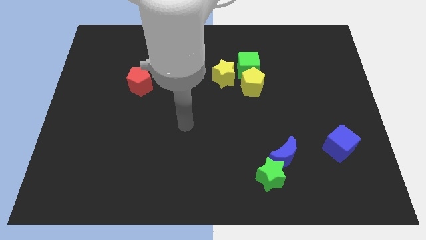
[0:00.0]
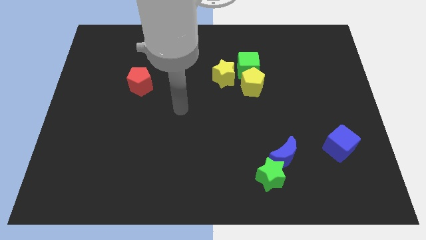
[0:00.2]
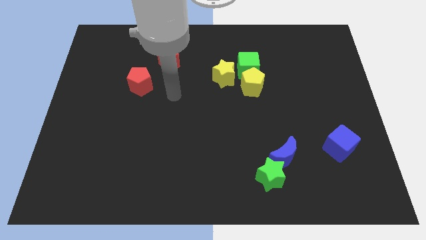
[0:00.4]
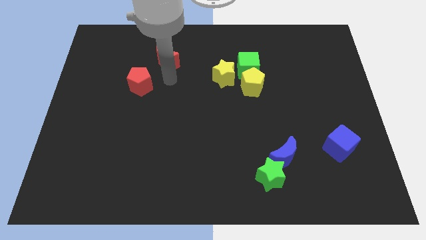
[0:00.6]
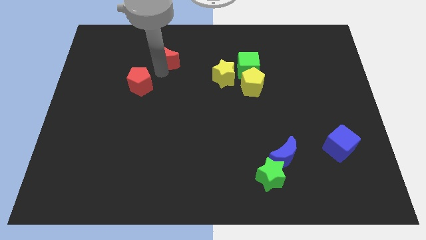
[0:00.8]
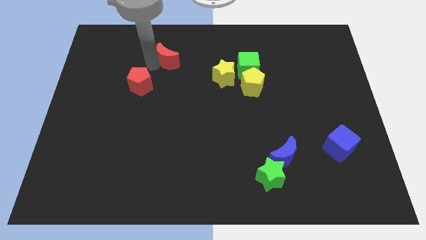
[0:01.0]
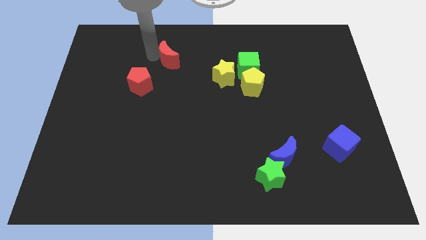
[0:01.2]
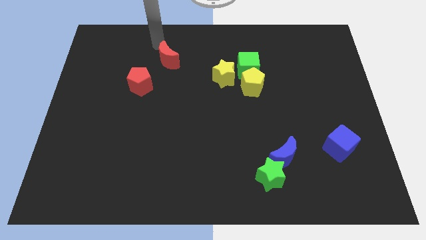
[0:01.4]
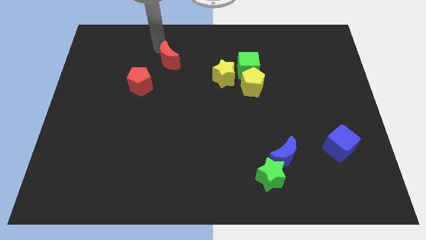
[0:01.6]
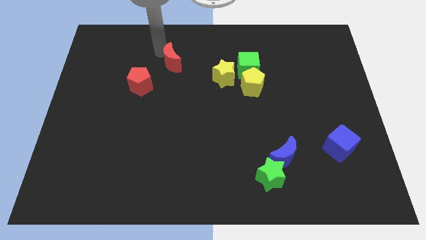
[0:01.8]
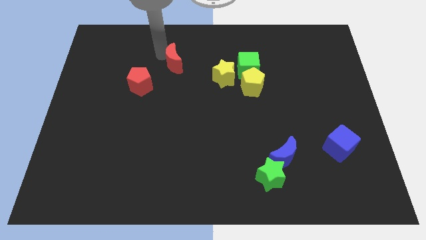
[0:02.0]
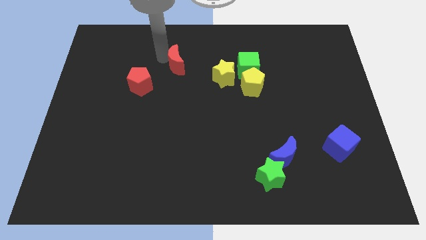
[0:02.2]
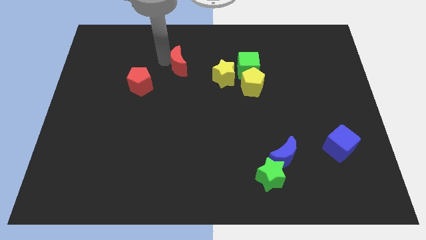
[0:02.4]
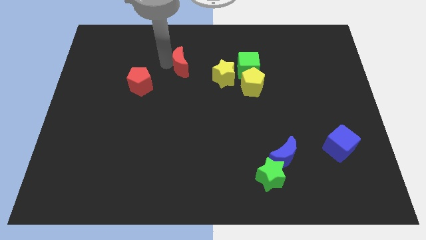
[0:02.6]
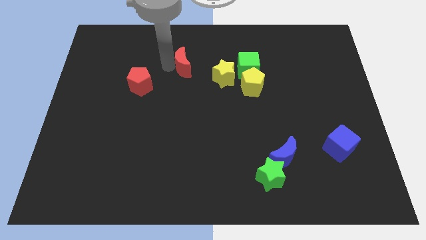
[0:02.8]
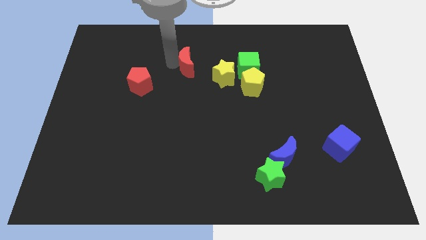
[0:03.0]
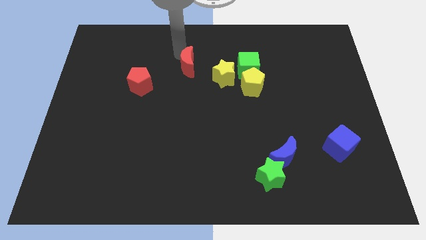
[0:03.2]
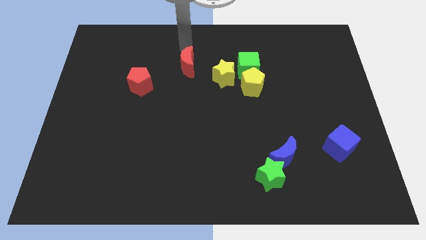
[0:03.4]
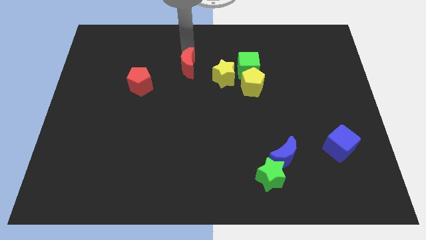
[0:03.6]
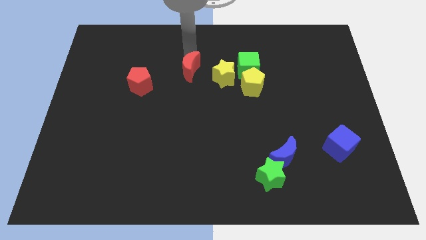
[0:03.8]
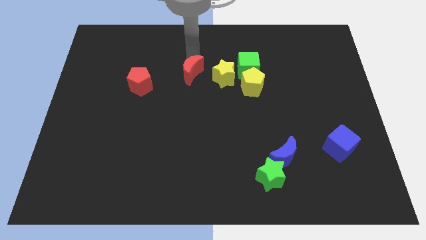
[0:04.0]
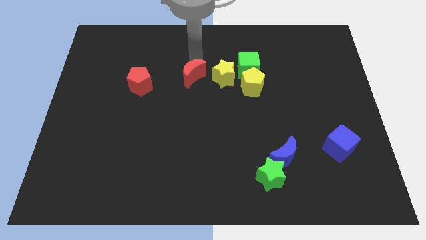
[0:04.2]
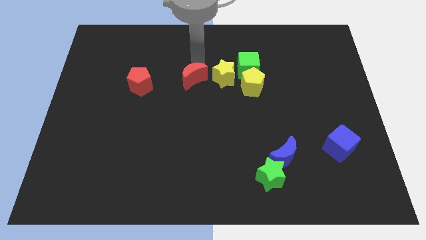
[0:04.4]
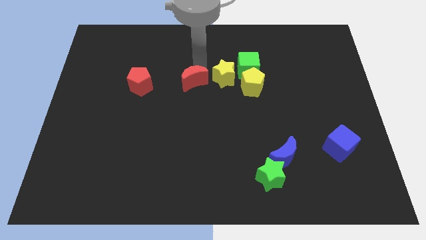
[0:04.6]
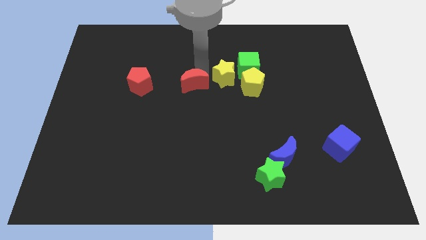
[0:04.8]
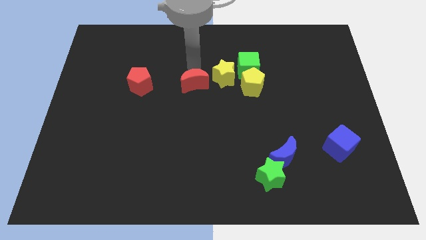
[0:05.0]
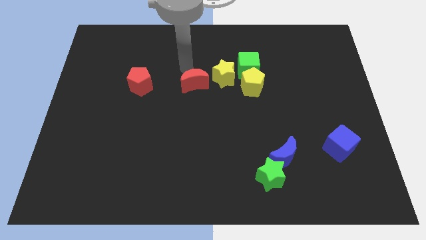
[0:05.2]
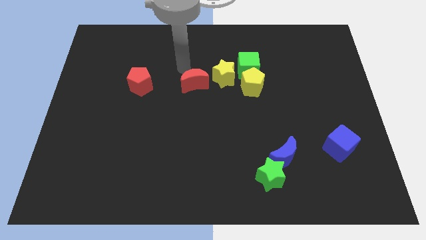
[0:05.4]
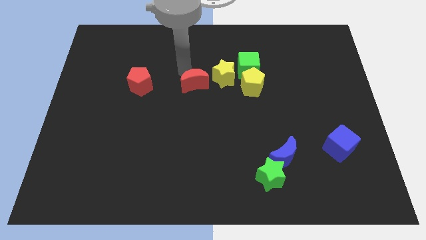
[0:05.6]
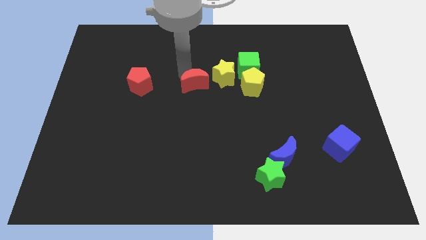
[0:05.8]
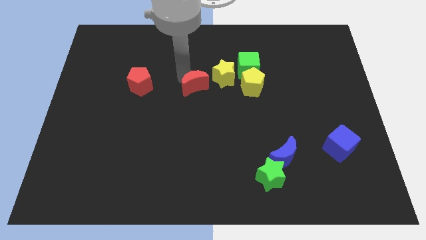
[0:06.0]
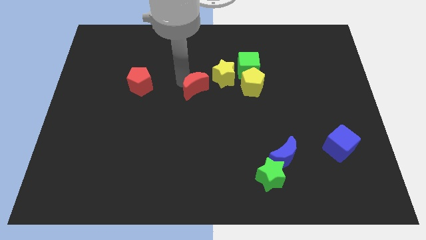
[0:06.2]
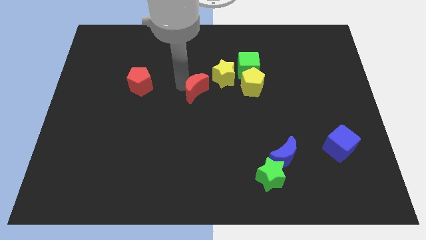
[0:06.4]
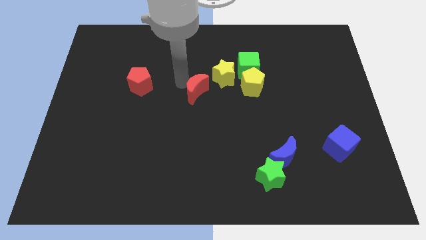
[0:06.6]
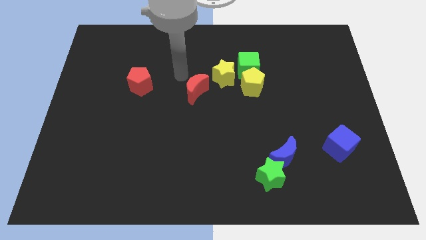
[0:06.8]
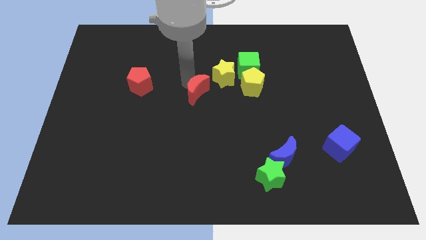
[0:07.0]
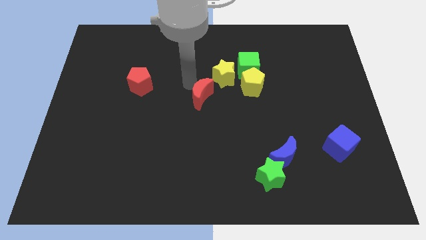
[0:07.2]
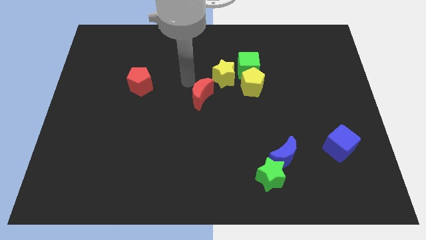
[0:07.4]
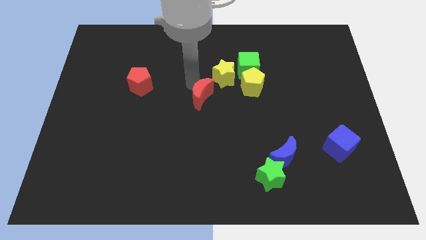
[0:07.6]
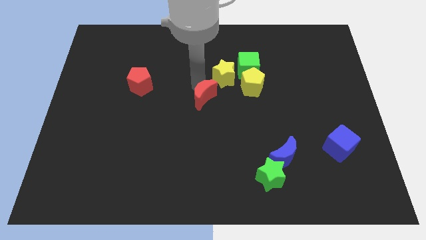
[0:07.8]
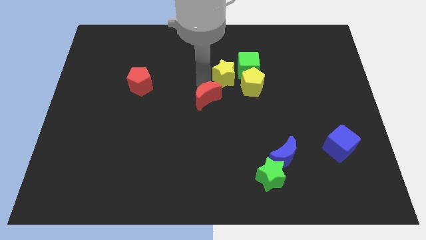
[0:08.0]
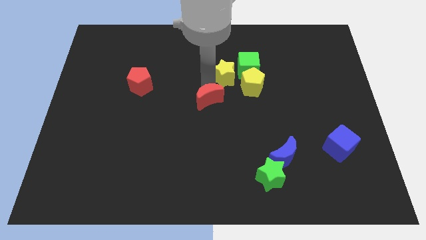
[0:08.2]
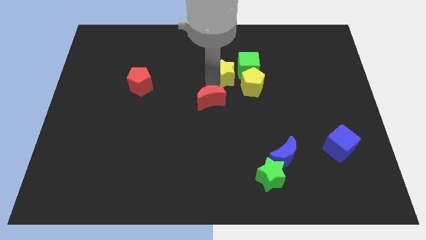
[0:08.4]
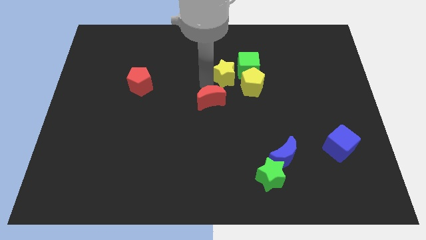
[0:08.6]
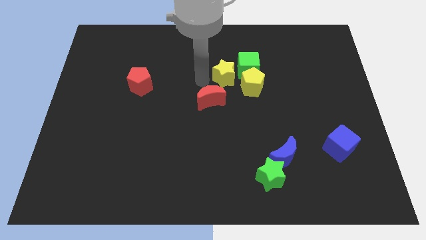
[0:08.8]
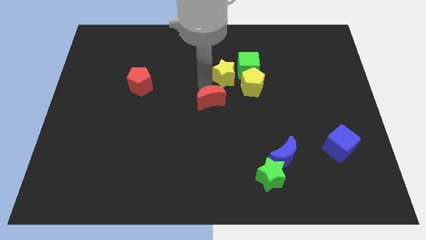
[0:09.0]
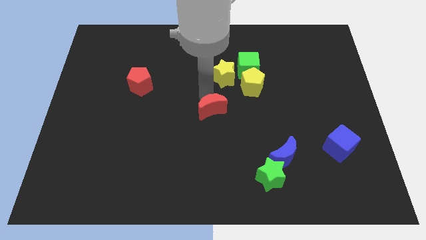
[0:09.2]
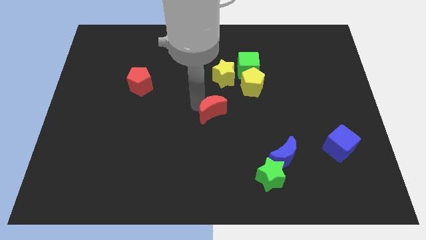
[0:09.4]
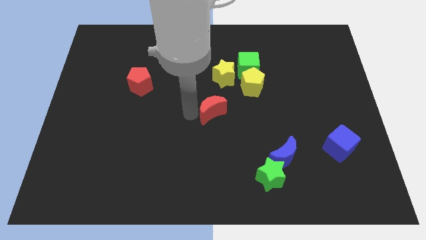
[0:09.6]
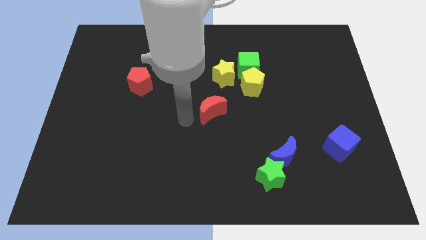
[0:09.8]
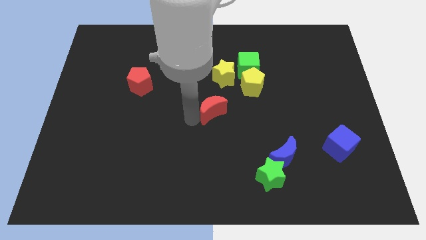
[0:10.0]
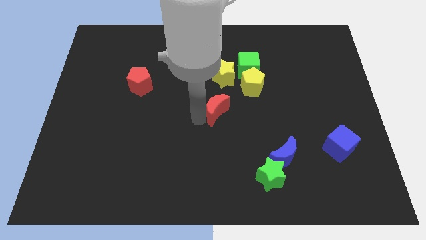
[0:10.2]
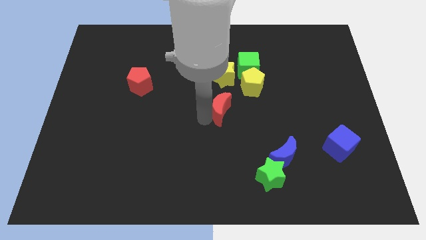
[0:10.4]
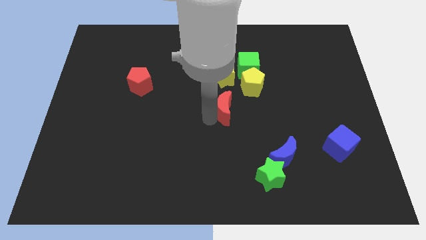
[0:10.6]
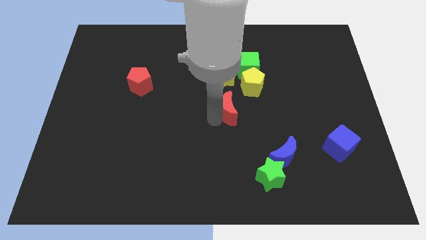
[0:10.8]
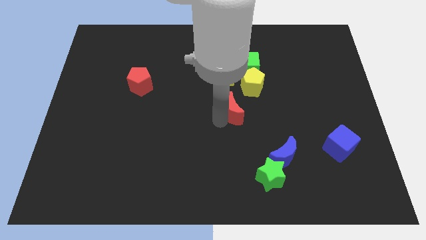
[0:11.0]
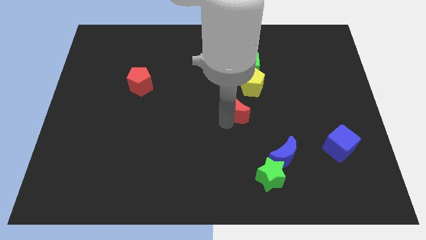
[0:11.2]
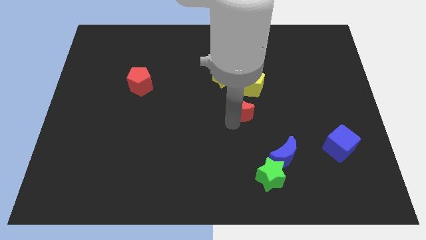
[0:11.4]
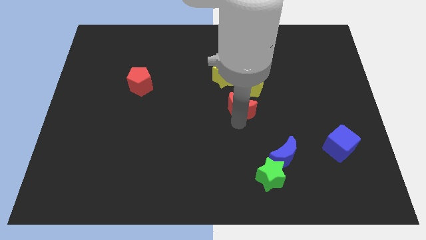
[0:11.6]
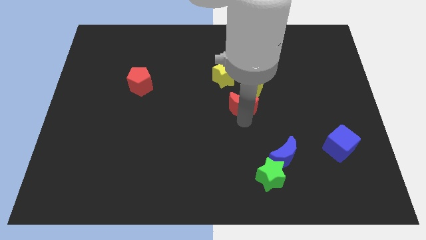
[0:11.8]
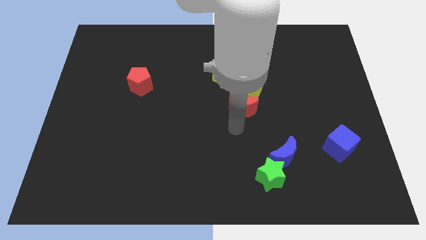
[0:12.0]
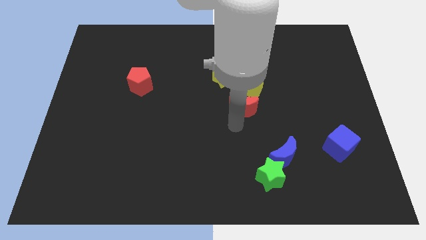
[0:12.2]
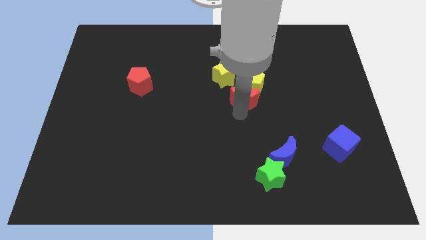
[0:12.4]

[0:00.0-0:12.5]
move the red moon towards the yellow pentagon

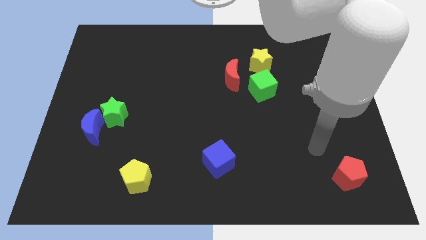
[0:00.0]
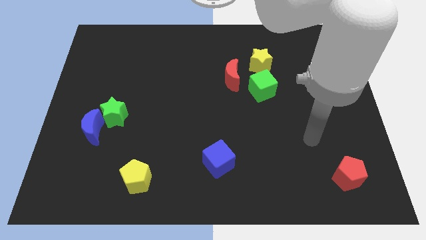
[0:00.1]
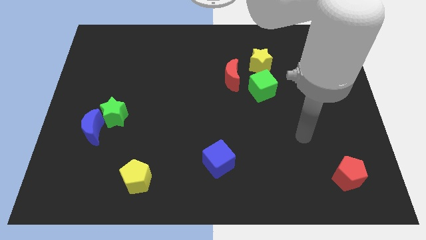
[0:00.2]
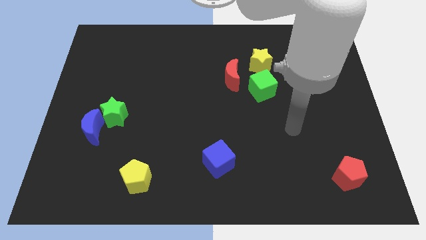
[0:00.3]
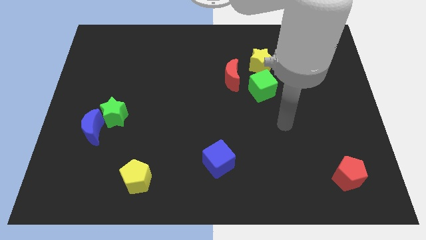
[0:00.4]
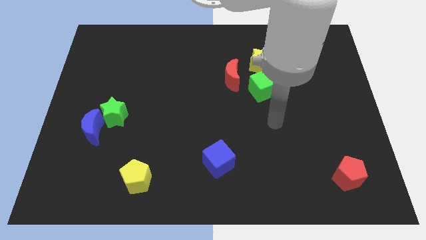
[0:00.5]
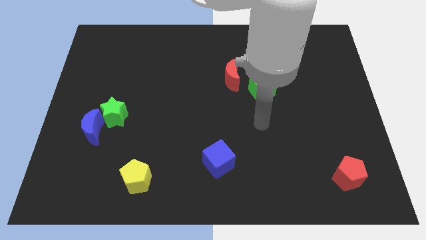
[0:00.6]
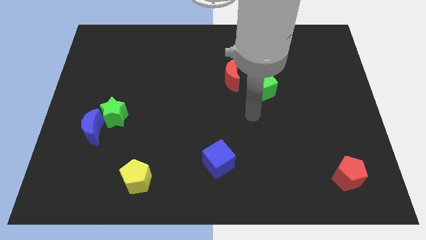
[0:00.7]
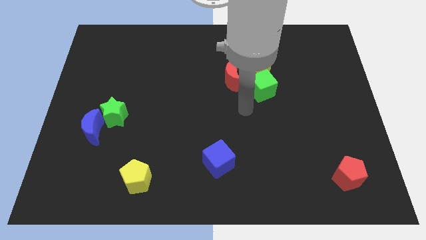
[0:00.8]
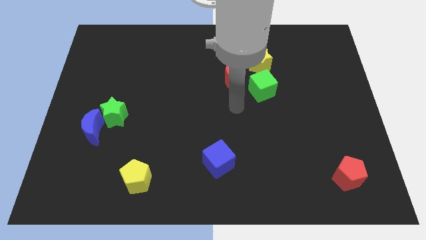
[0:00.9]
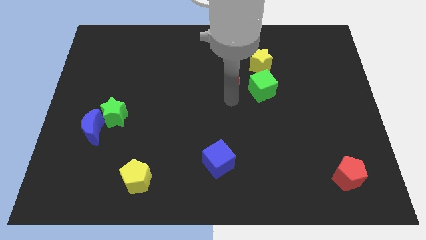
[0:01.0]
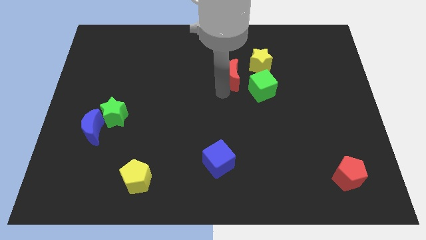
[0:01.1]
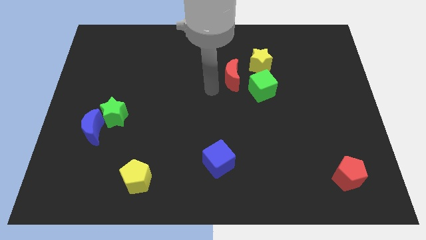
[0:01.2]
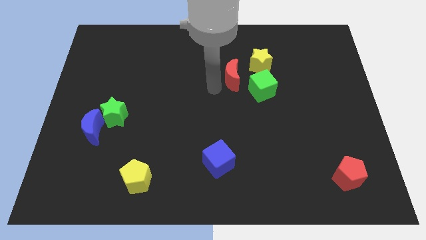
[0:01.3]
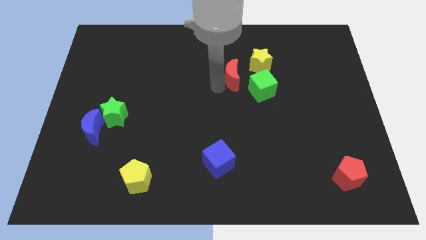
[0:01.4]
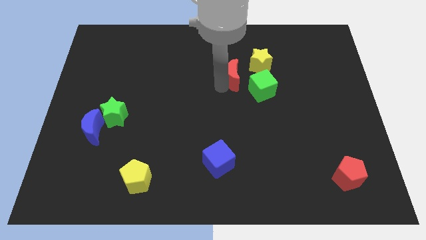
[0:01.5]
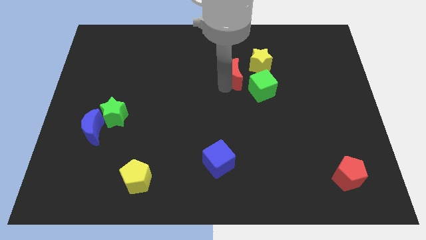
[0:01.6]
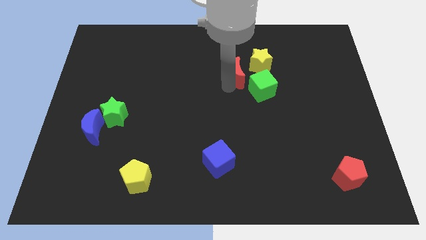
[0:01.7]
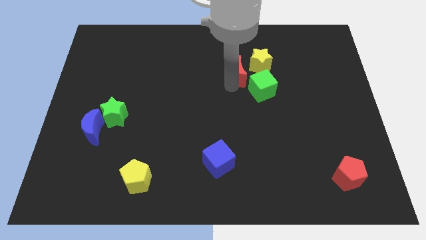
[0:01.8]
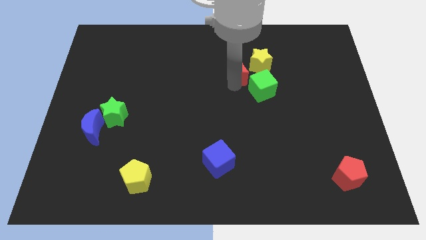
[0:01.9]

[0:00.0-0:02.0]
put the red moon next to the yellow star
